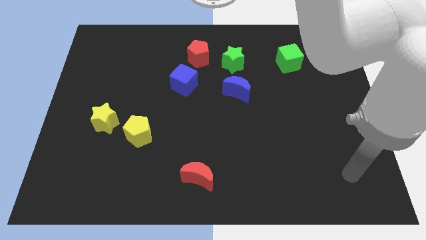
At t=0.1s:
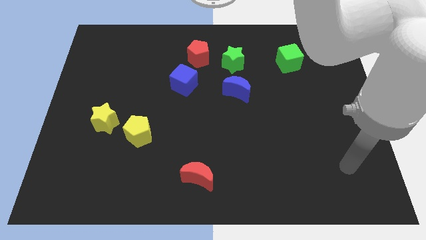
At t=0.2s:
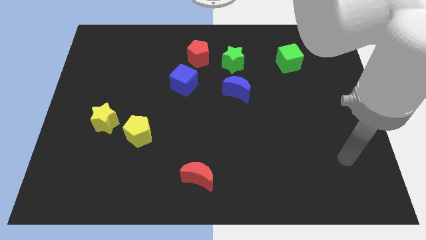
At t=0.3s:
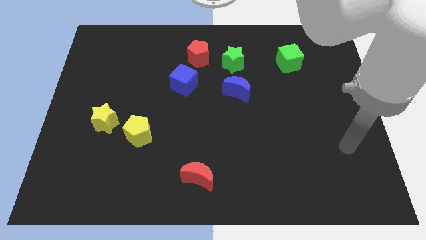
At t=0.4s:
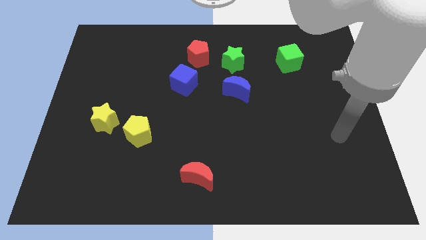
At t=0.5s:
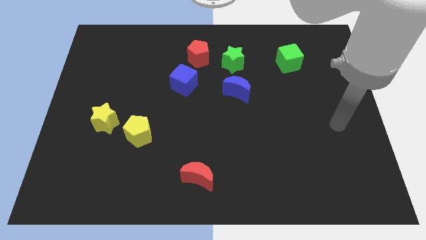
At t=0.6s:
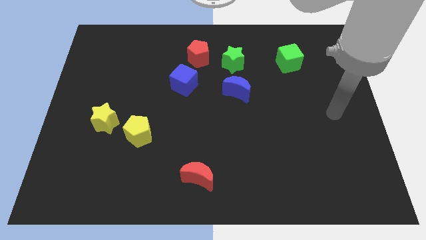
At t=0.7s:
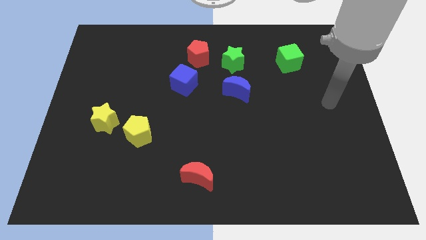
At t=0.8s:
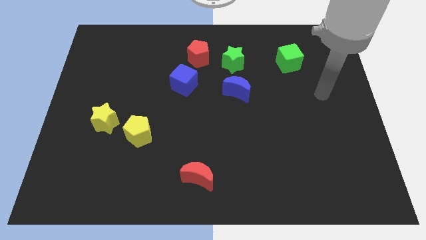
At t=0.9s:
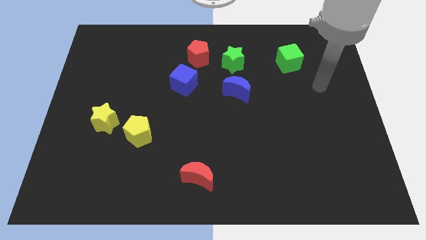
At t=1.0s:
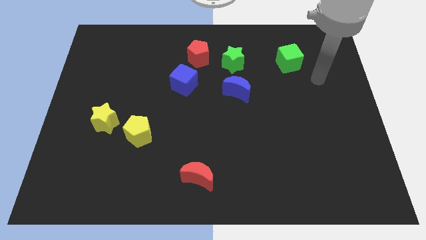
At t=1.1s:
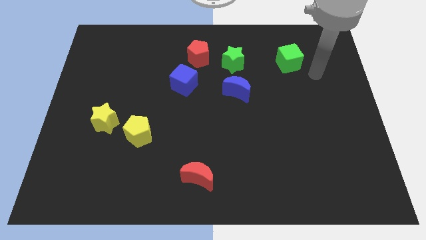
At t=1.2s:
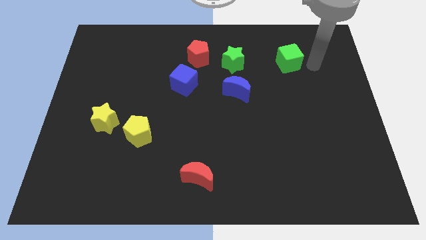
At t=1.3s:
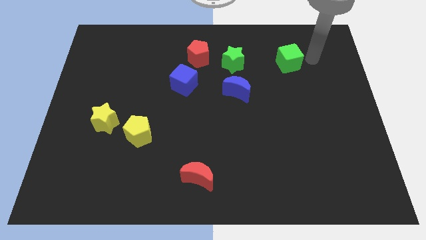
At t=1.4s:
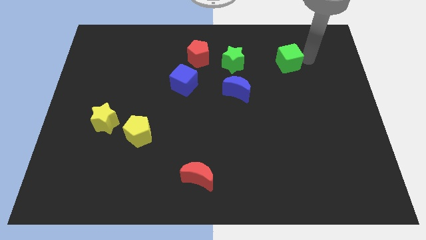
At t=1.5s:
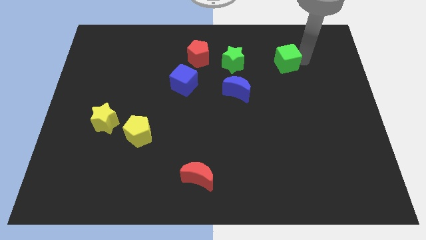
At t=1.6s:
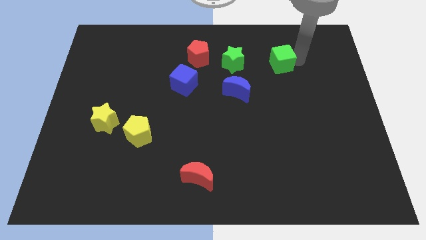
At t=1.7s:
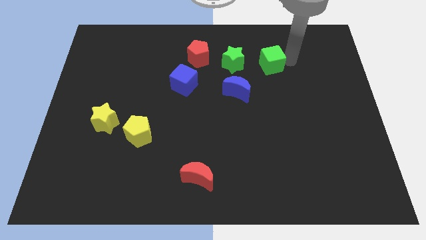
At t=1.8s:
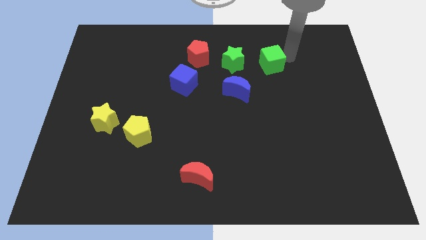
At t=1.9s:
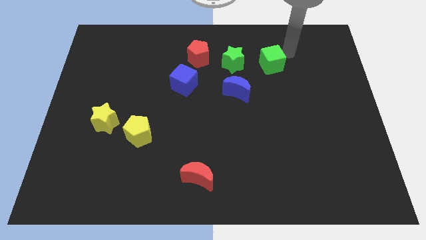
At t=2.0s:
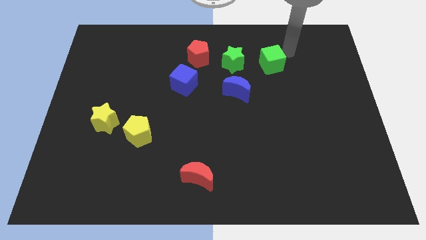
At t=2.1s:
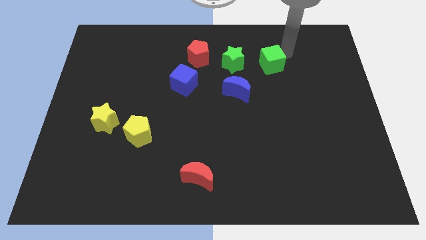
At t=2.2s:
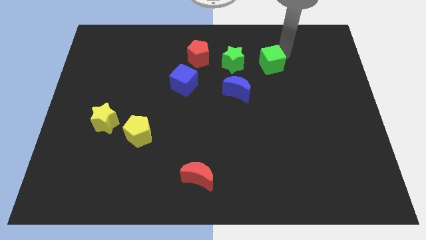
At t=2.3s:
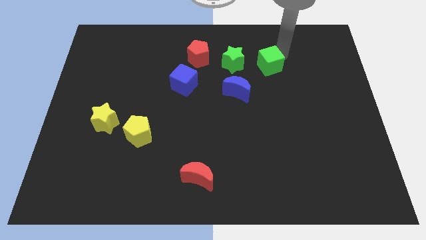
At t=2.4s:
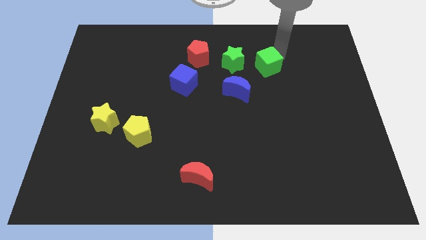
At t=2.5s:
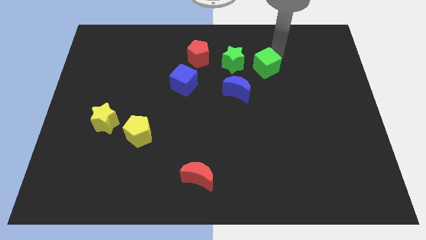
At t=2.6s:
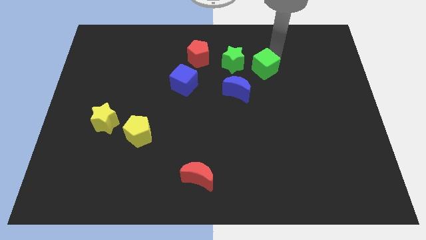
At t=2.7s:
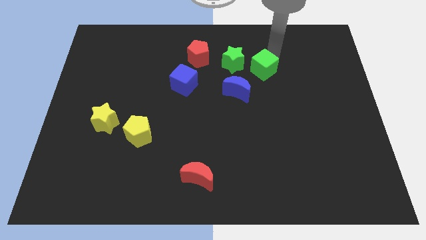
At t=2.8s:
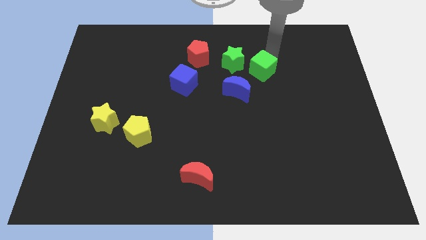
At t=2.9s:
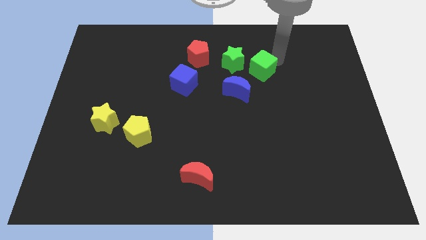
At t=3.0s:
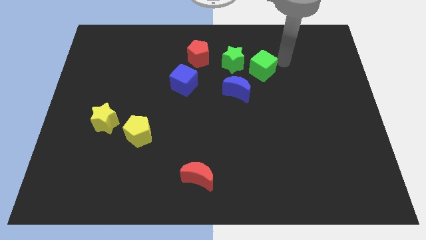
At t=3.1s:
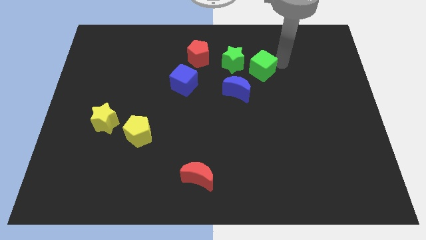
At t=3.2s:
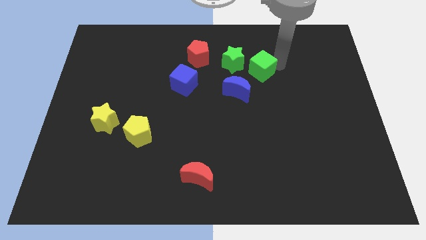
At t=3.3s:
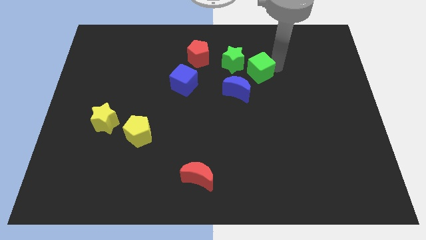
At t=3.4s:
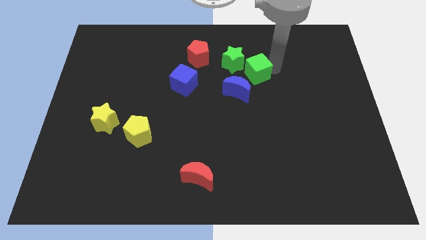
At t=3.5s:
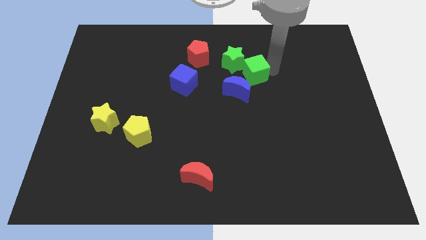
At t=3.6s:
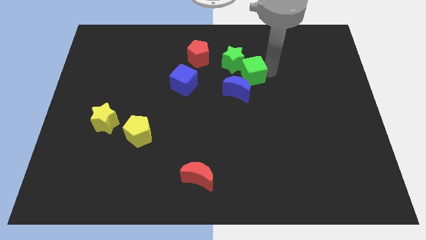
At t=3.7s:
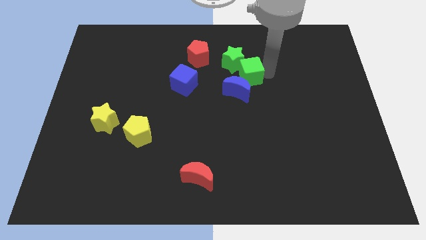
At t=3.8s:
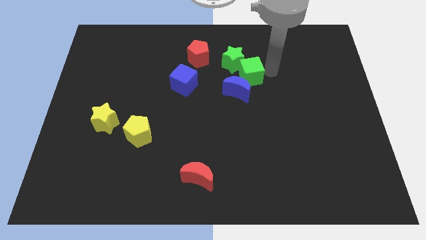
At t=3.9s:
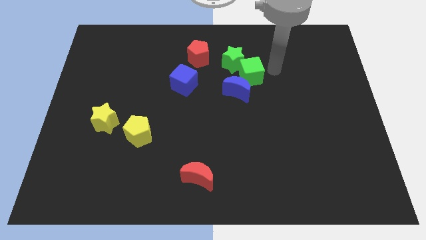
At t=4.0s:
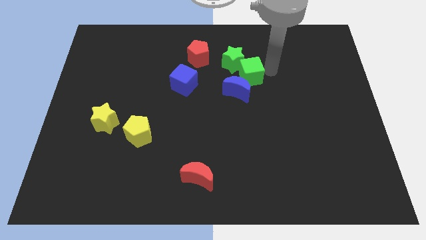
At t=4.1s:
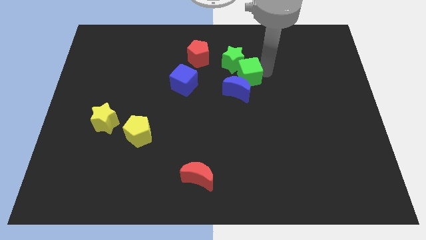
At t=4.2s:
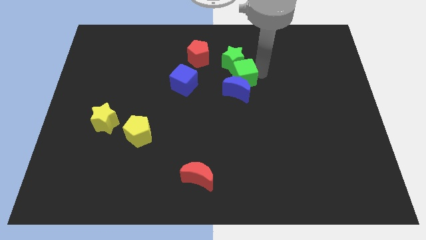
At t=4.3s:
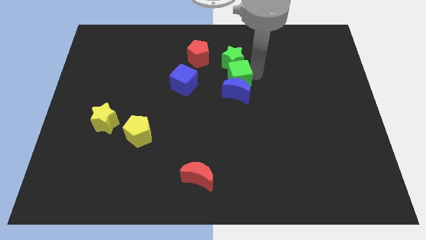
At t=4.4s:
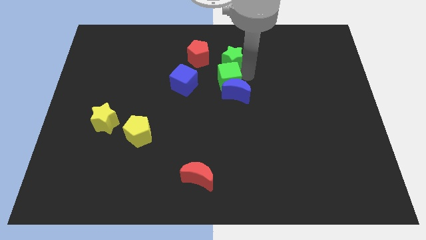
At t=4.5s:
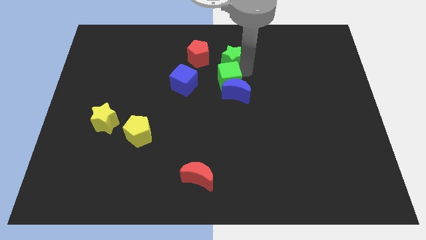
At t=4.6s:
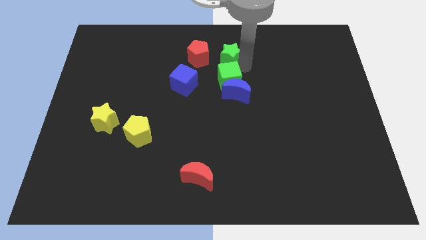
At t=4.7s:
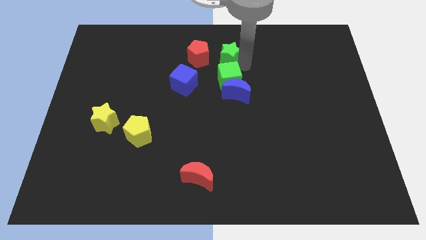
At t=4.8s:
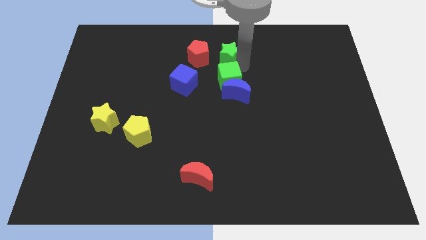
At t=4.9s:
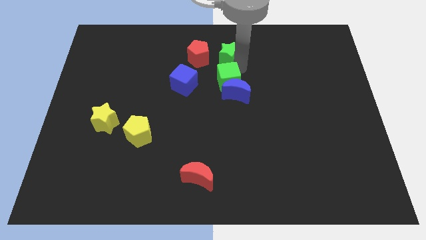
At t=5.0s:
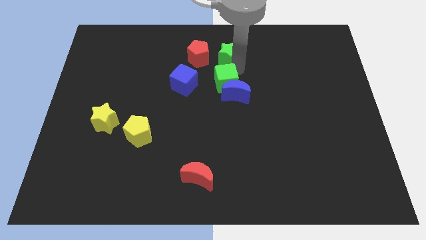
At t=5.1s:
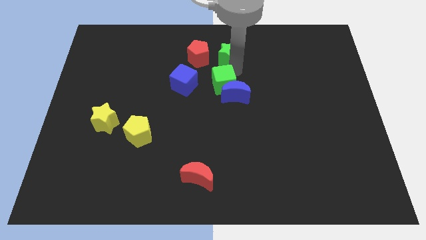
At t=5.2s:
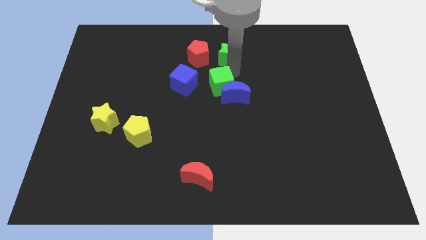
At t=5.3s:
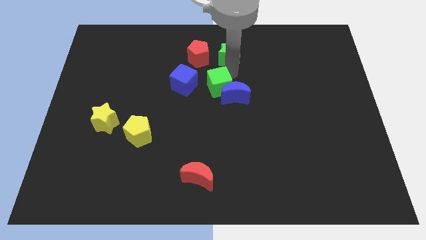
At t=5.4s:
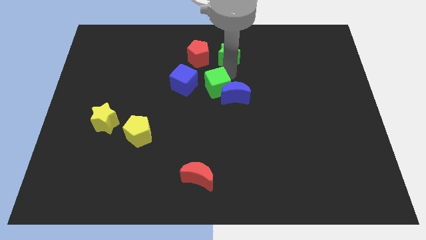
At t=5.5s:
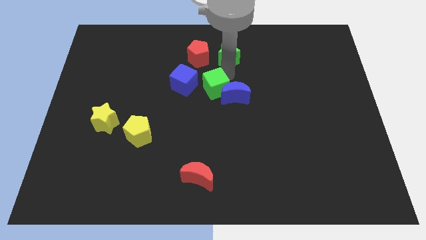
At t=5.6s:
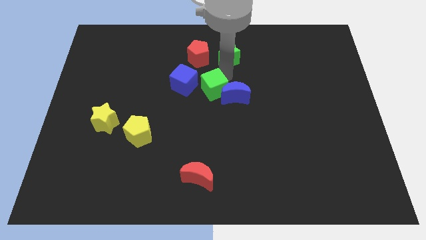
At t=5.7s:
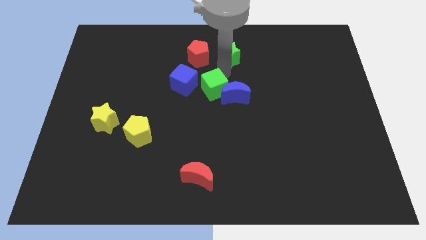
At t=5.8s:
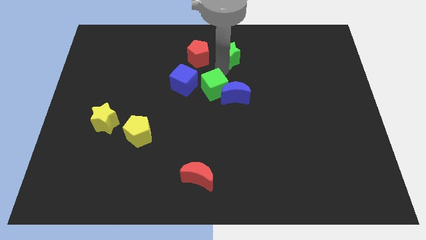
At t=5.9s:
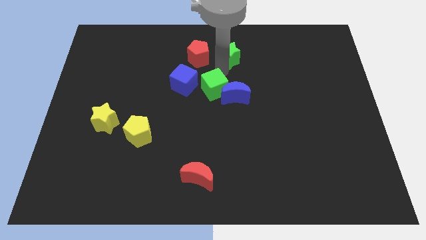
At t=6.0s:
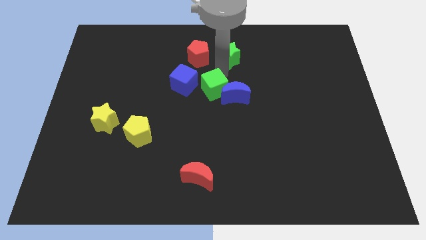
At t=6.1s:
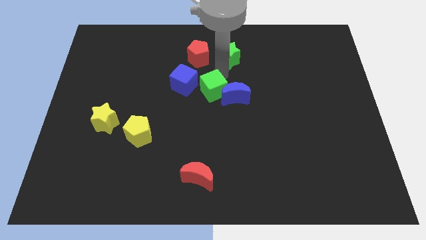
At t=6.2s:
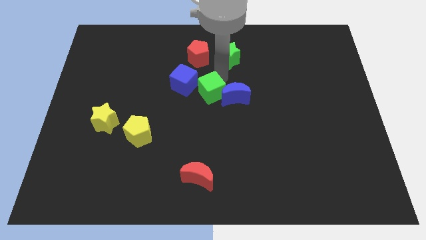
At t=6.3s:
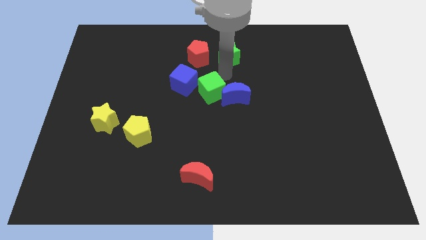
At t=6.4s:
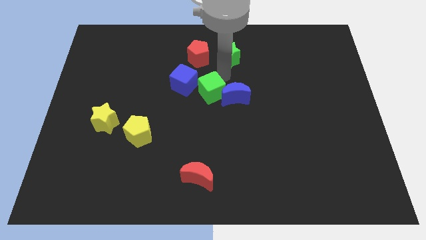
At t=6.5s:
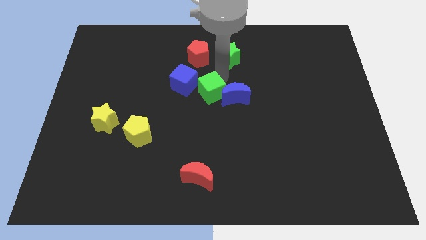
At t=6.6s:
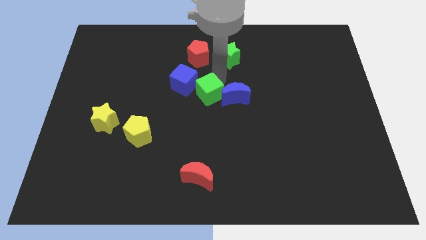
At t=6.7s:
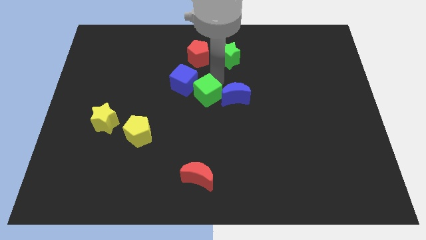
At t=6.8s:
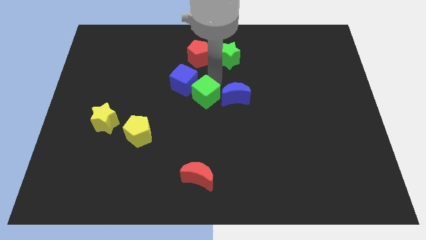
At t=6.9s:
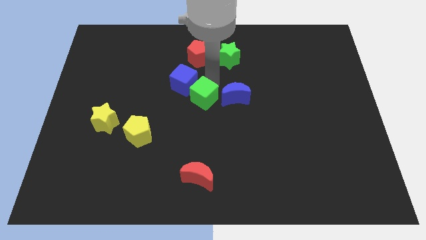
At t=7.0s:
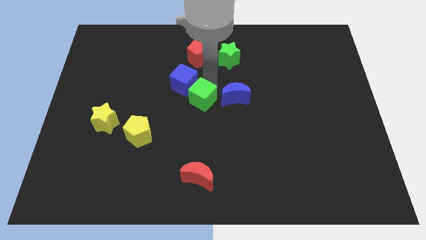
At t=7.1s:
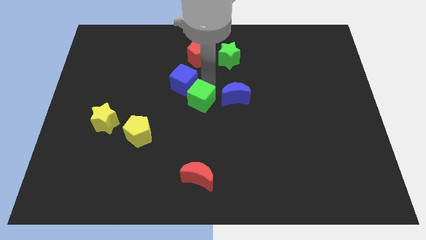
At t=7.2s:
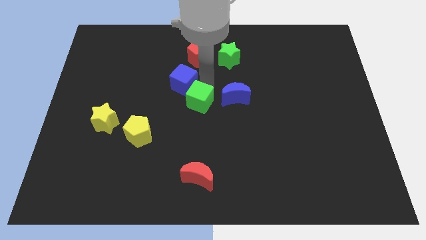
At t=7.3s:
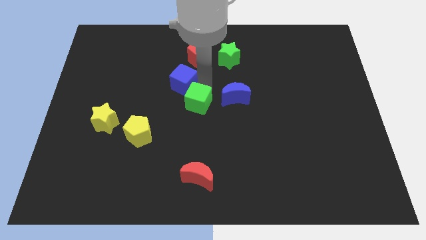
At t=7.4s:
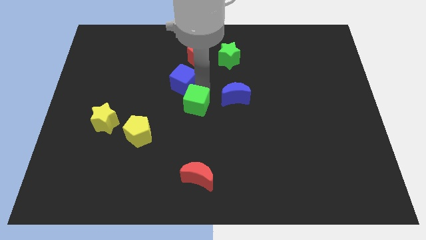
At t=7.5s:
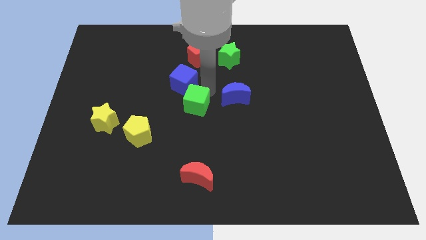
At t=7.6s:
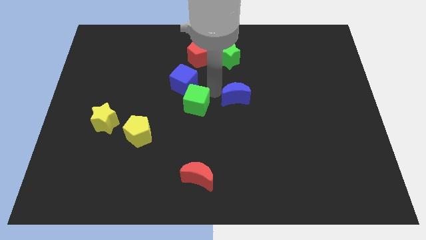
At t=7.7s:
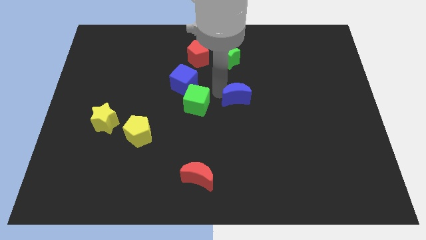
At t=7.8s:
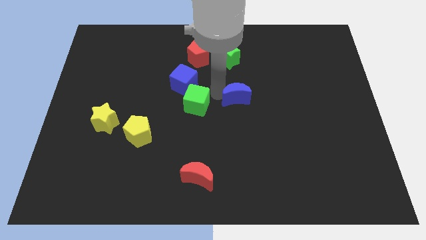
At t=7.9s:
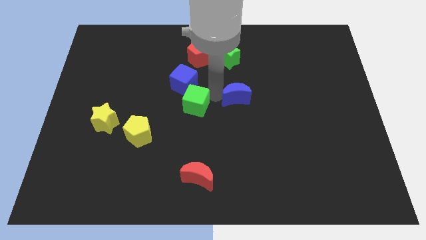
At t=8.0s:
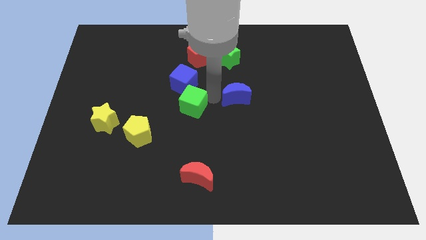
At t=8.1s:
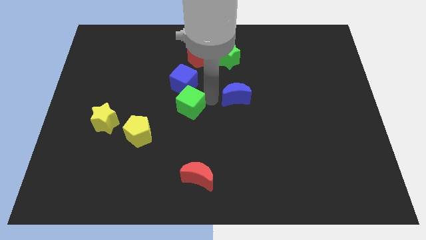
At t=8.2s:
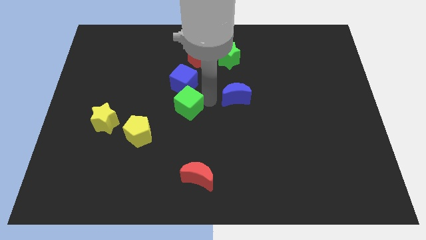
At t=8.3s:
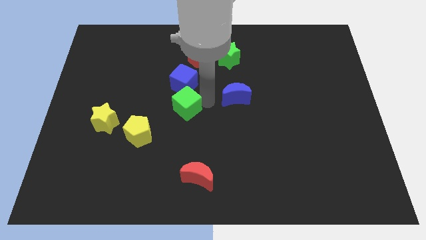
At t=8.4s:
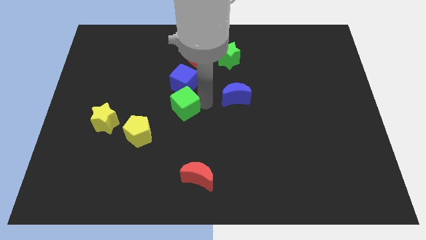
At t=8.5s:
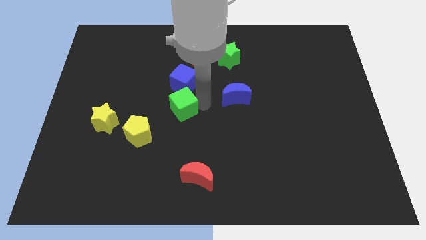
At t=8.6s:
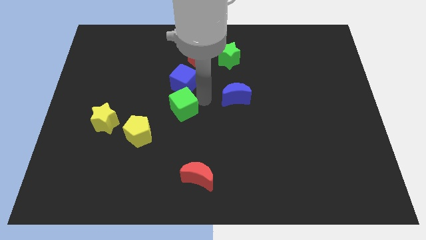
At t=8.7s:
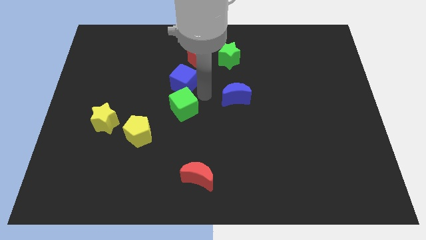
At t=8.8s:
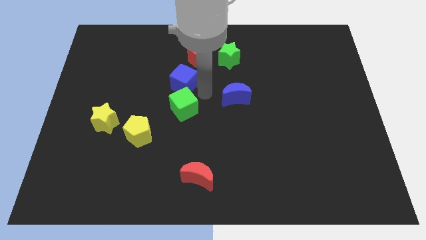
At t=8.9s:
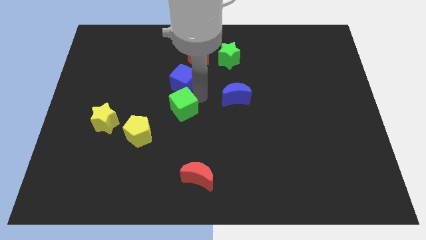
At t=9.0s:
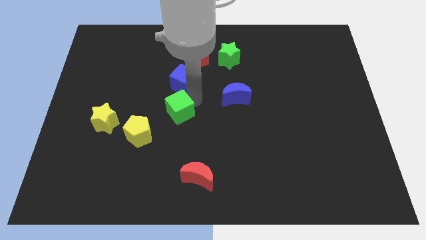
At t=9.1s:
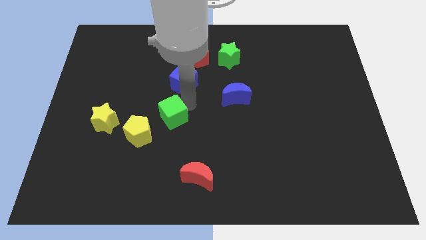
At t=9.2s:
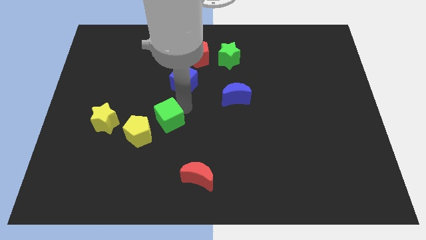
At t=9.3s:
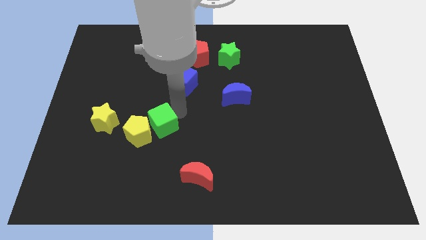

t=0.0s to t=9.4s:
put the green cube close to the yellow pentagon
